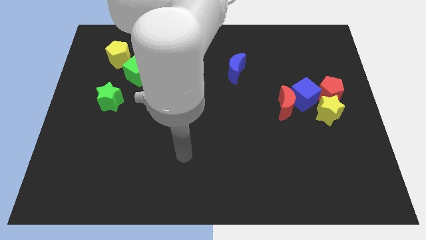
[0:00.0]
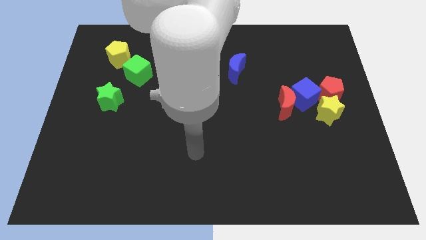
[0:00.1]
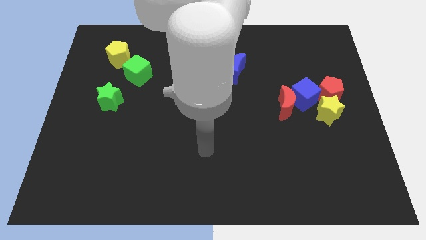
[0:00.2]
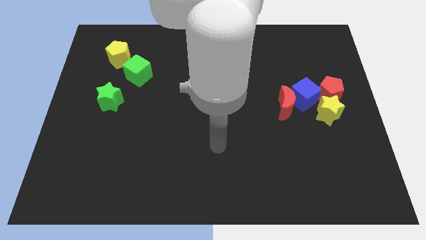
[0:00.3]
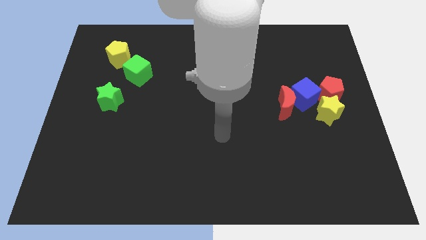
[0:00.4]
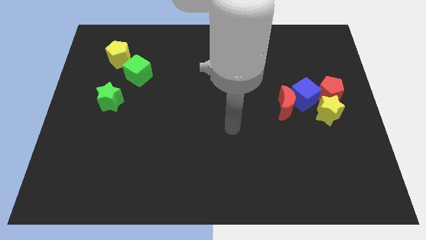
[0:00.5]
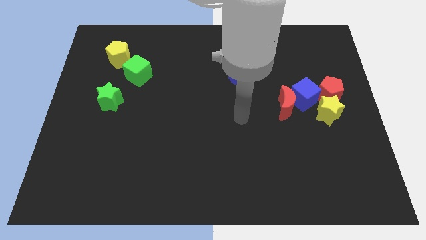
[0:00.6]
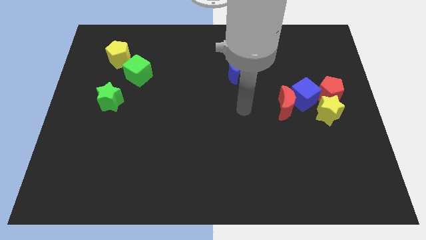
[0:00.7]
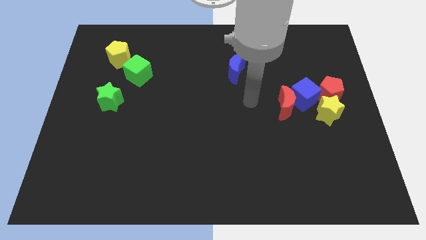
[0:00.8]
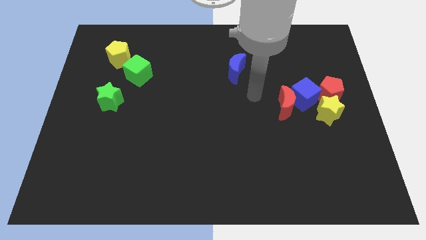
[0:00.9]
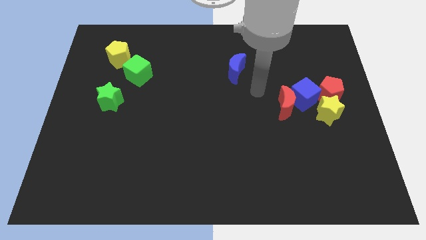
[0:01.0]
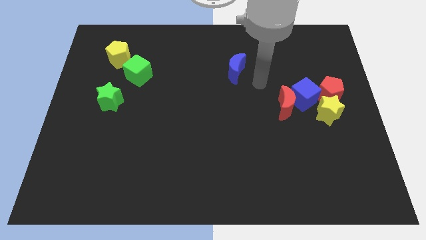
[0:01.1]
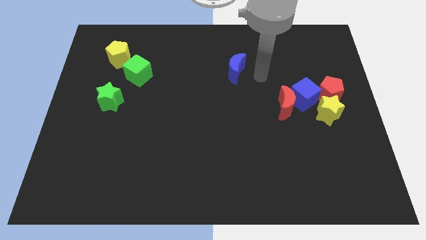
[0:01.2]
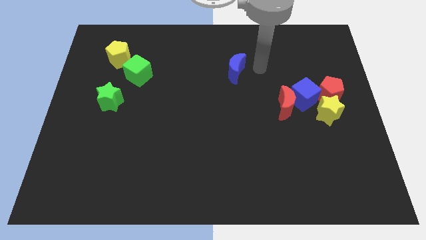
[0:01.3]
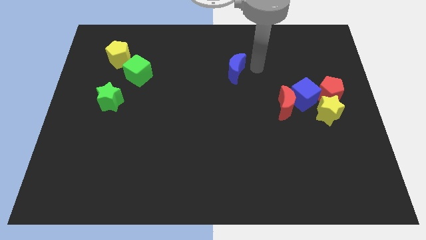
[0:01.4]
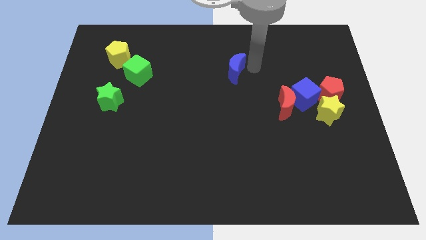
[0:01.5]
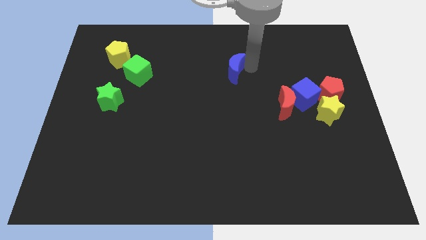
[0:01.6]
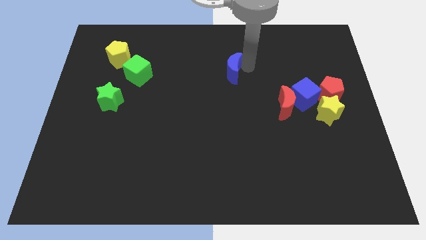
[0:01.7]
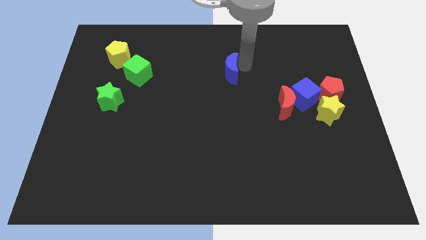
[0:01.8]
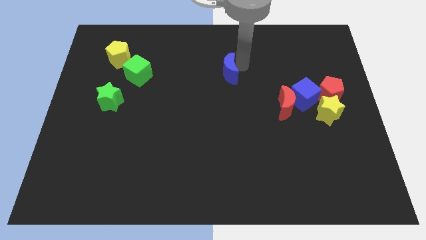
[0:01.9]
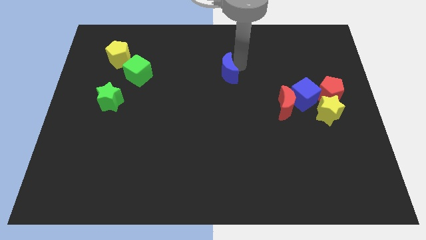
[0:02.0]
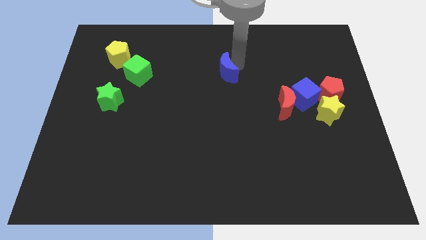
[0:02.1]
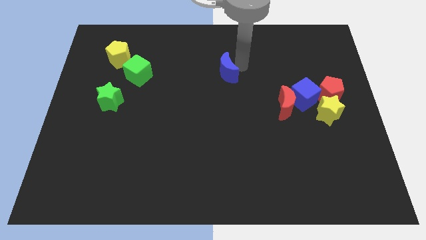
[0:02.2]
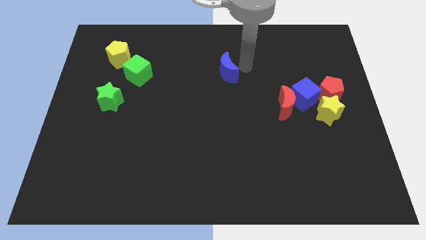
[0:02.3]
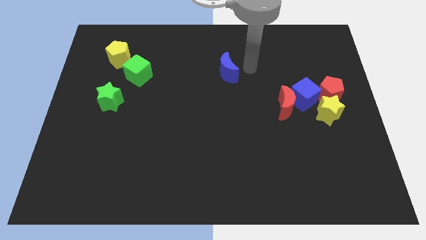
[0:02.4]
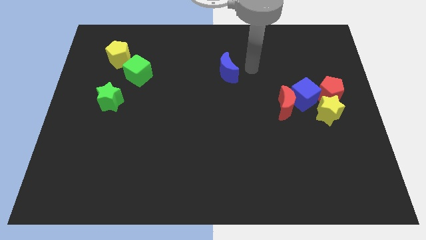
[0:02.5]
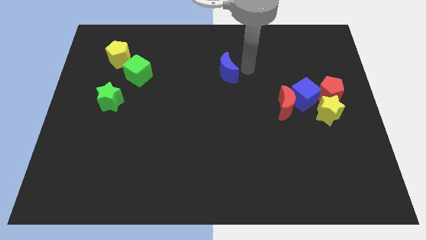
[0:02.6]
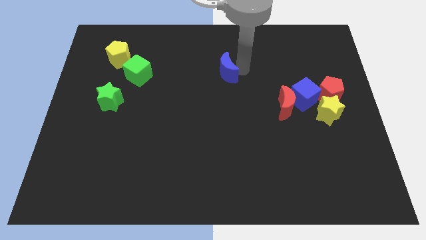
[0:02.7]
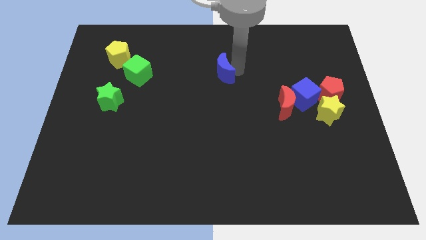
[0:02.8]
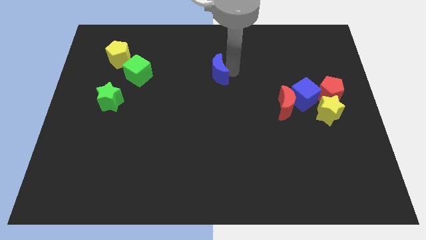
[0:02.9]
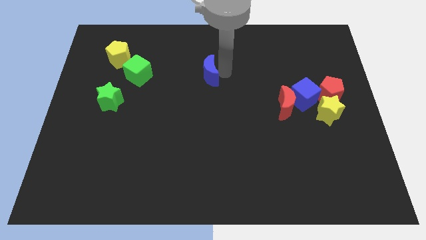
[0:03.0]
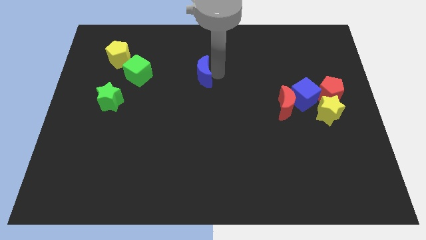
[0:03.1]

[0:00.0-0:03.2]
move the blue moon a little bit to the left

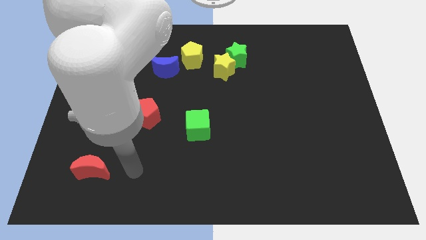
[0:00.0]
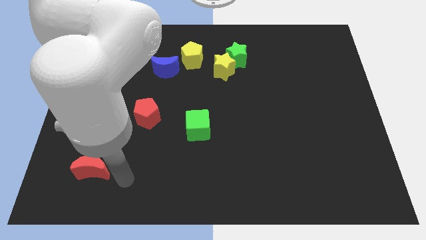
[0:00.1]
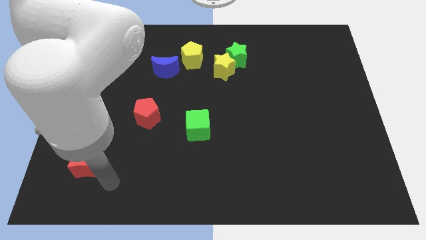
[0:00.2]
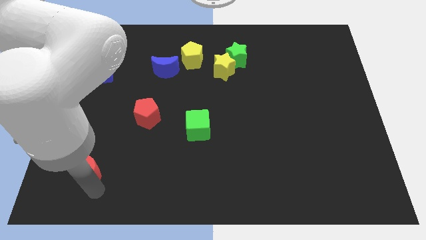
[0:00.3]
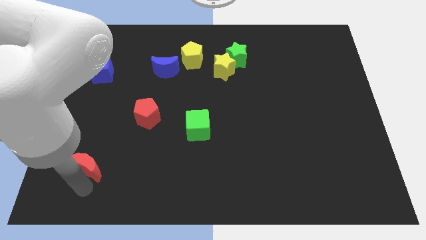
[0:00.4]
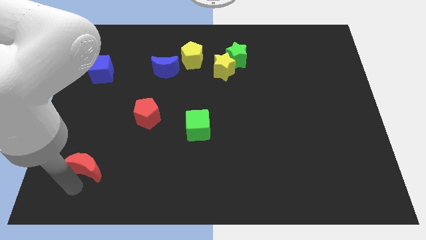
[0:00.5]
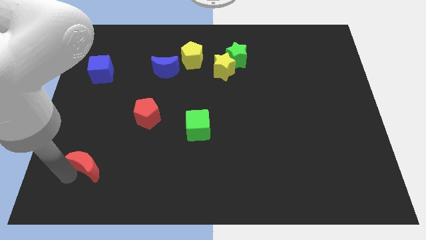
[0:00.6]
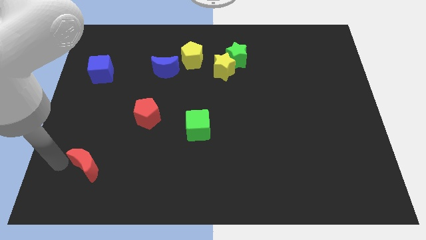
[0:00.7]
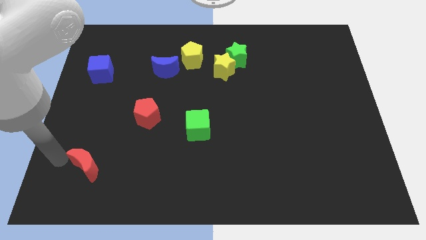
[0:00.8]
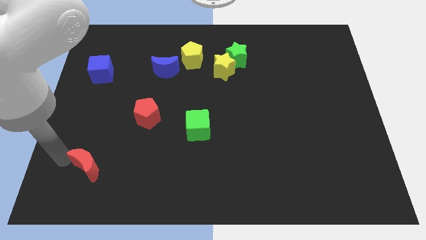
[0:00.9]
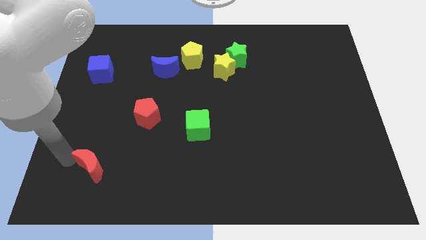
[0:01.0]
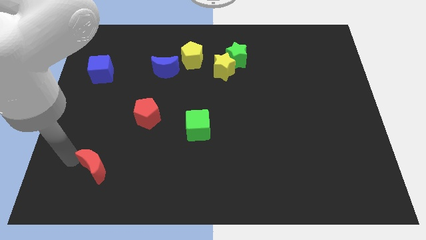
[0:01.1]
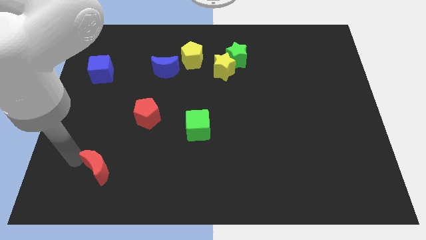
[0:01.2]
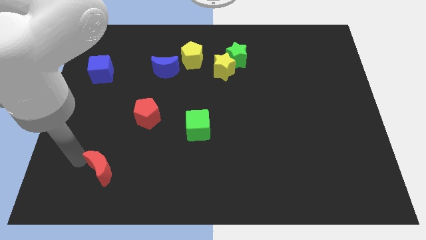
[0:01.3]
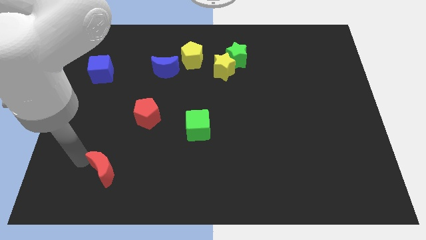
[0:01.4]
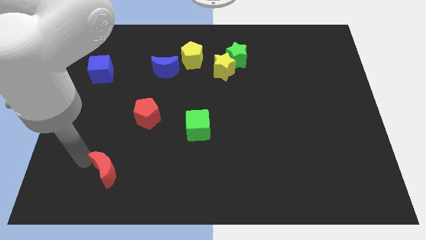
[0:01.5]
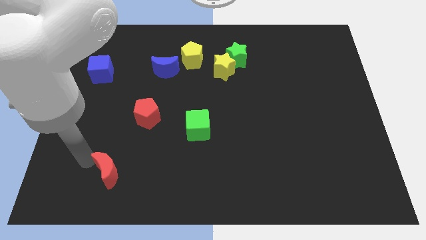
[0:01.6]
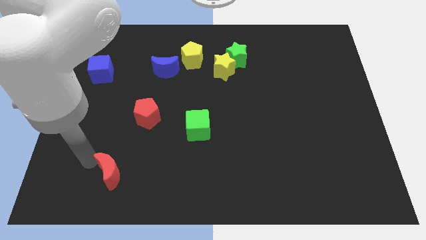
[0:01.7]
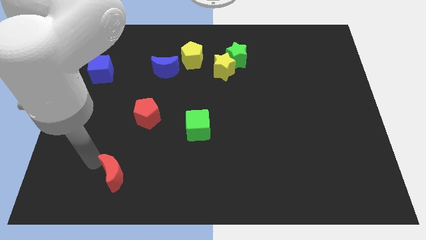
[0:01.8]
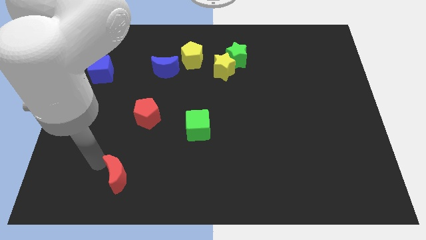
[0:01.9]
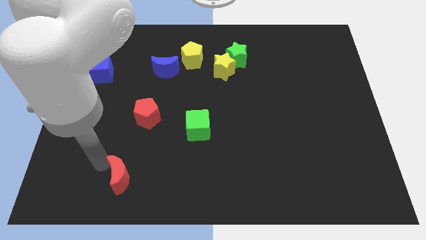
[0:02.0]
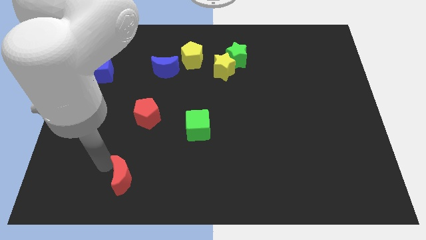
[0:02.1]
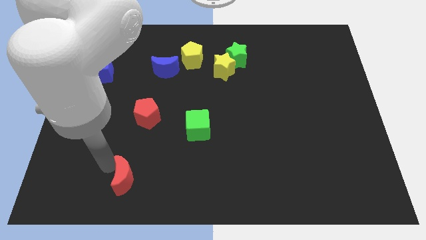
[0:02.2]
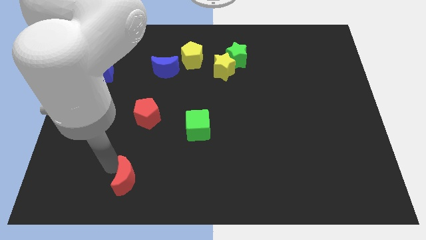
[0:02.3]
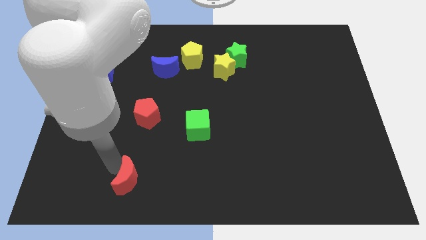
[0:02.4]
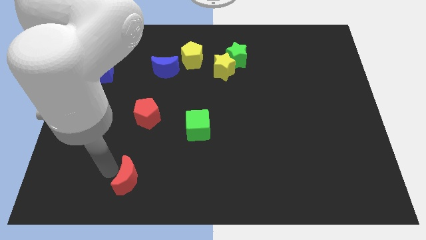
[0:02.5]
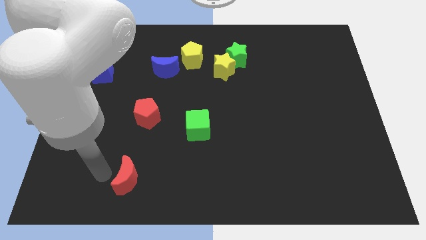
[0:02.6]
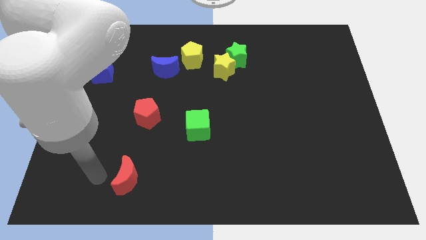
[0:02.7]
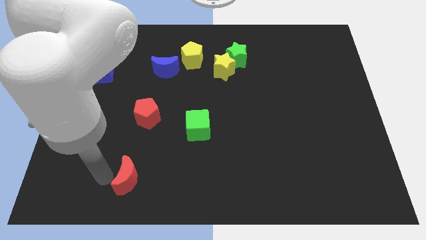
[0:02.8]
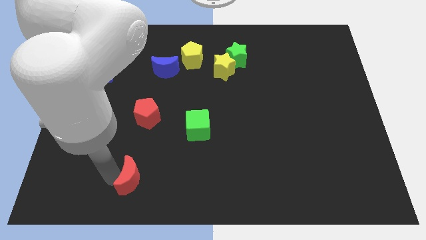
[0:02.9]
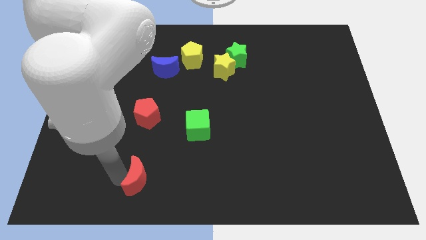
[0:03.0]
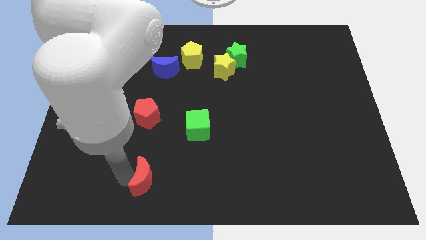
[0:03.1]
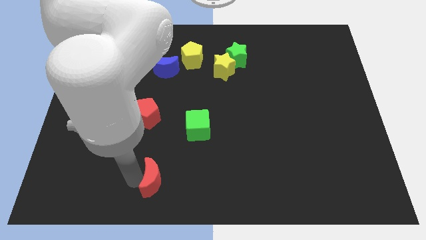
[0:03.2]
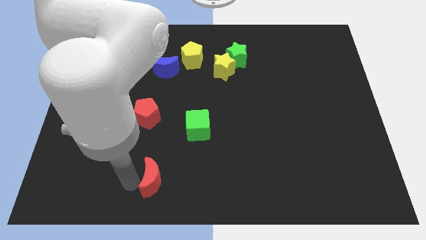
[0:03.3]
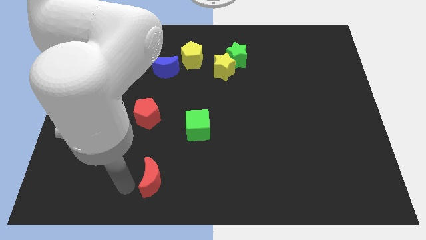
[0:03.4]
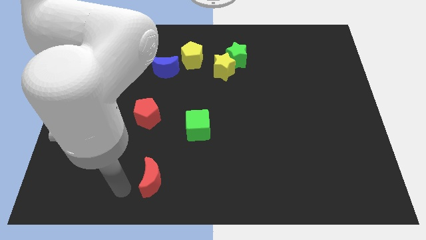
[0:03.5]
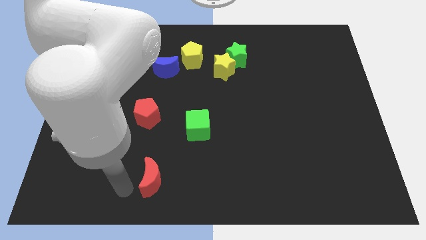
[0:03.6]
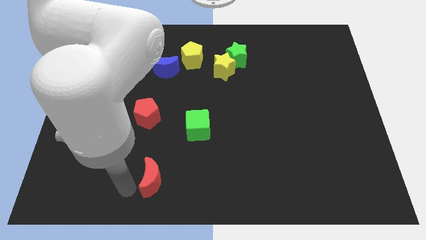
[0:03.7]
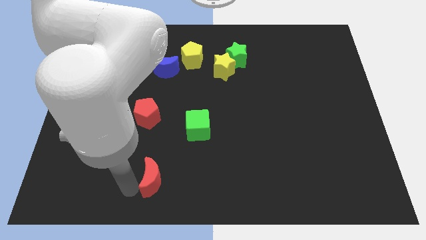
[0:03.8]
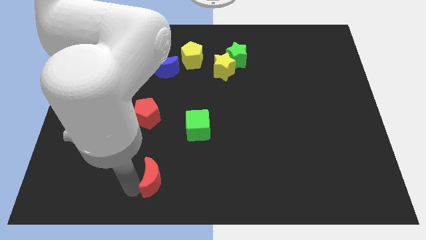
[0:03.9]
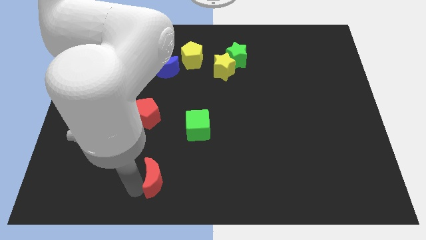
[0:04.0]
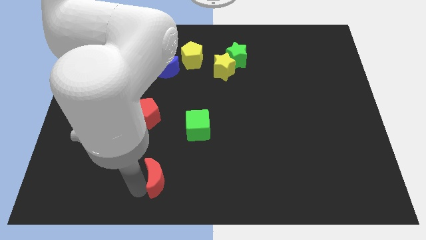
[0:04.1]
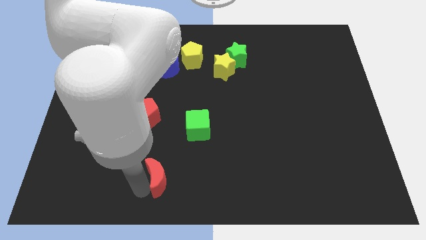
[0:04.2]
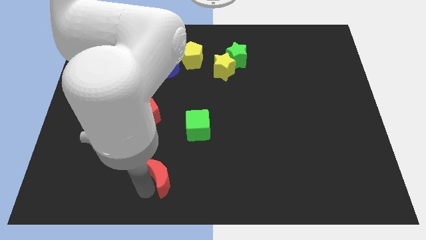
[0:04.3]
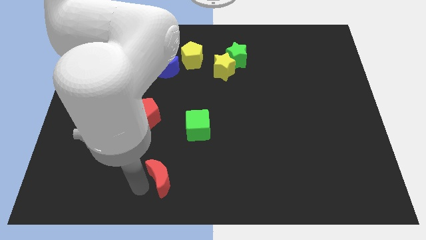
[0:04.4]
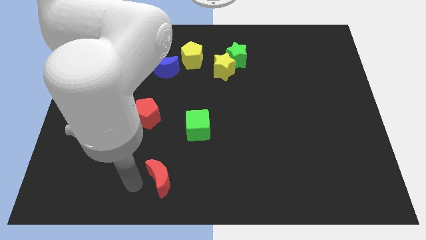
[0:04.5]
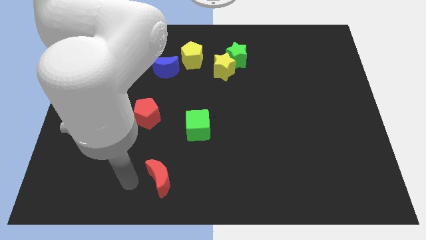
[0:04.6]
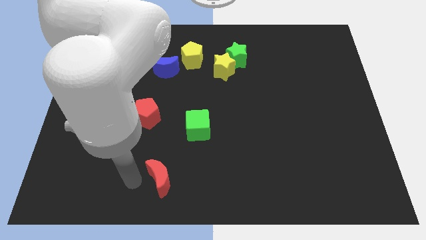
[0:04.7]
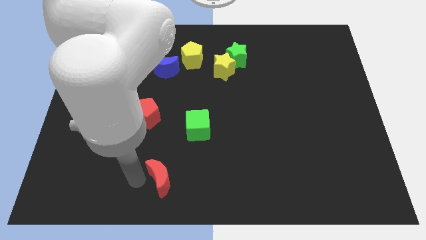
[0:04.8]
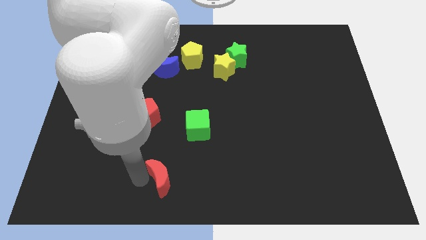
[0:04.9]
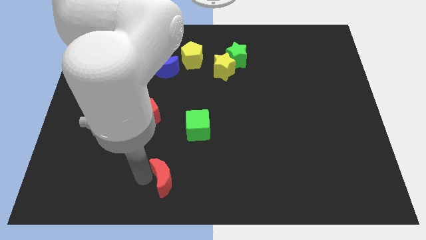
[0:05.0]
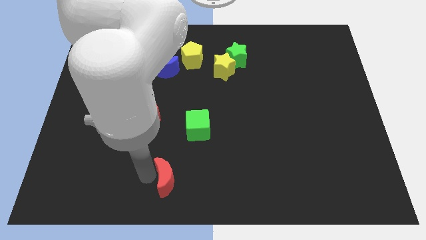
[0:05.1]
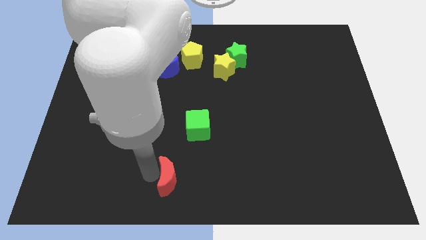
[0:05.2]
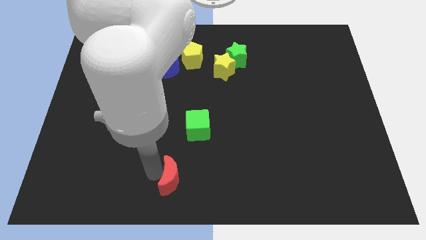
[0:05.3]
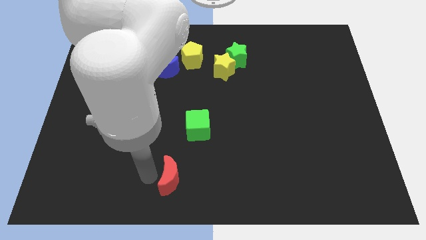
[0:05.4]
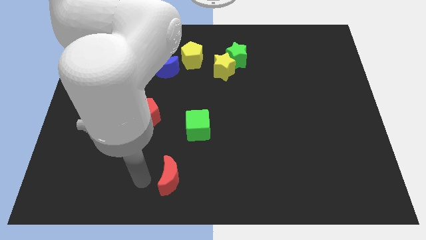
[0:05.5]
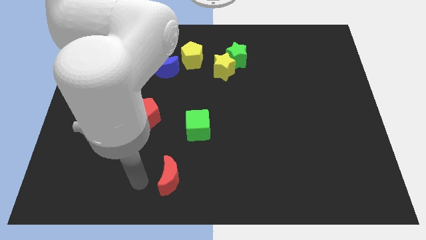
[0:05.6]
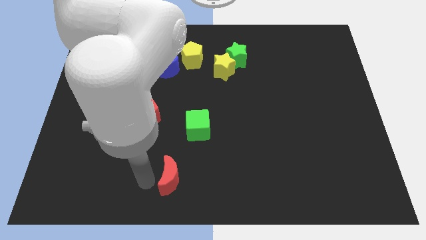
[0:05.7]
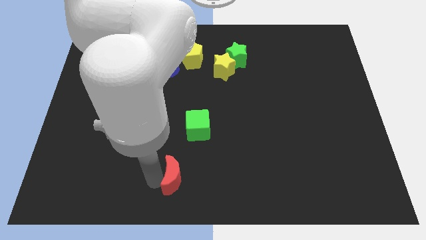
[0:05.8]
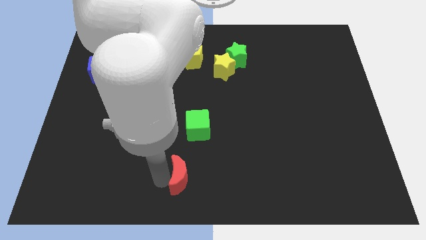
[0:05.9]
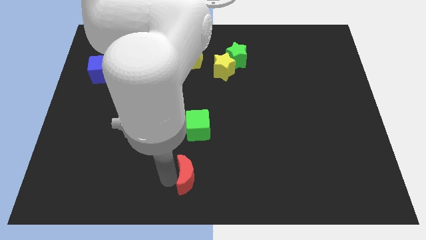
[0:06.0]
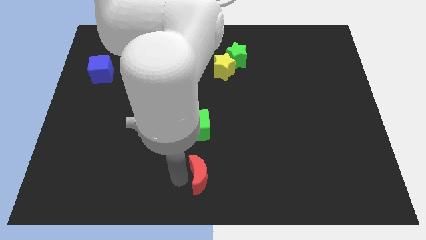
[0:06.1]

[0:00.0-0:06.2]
push the red moon right
